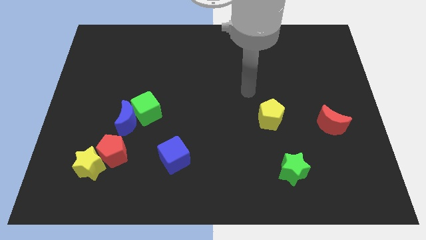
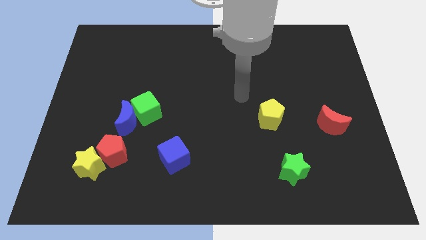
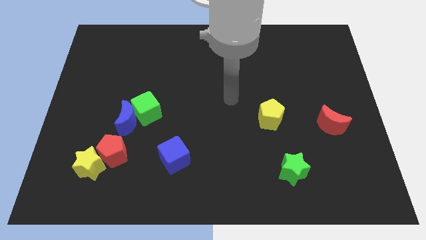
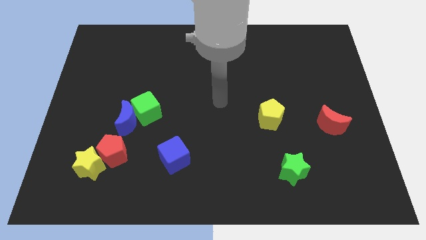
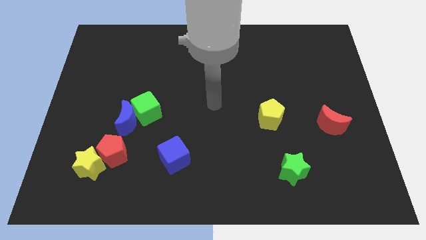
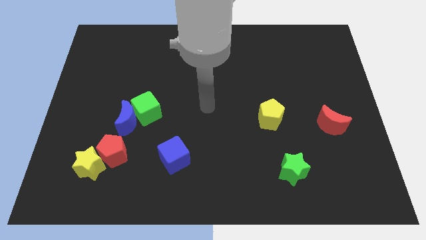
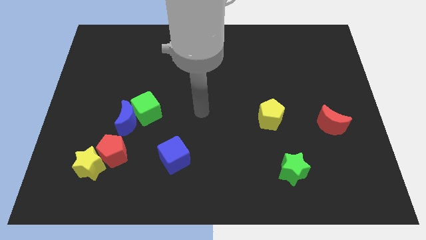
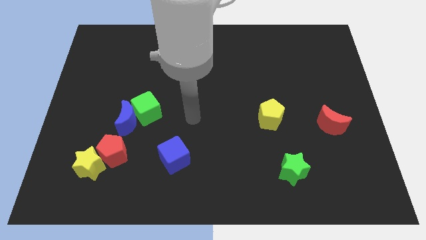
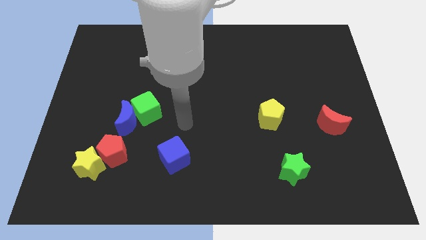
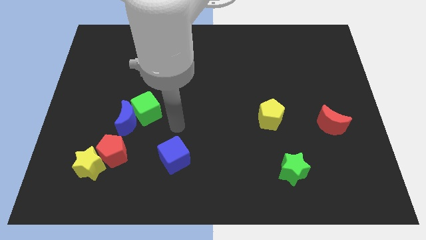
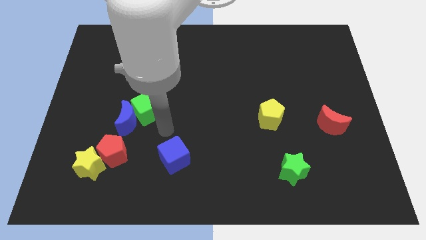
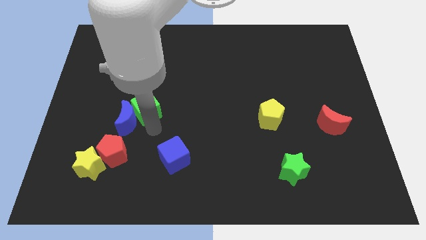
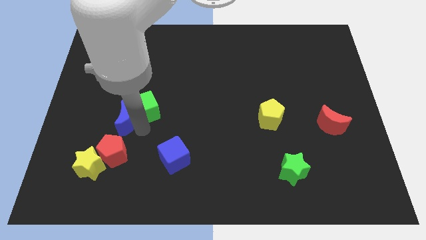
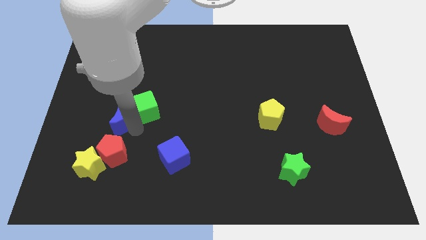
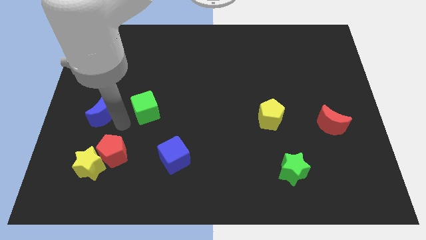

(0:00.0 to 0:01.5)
move the green cube away from the blue moon

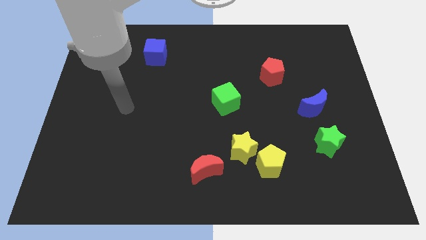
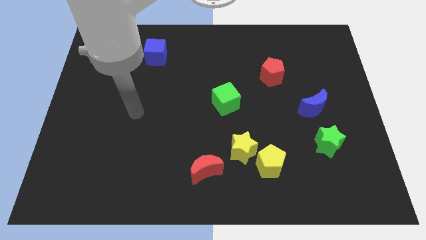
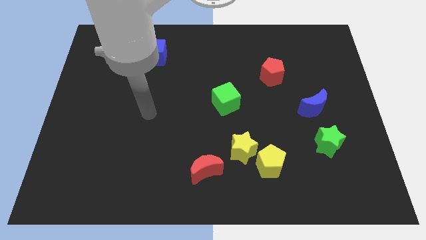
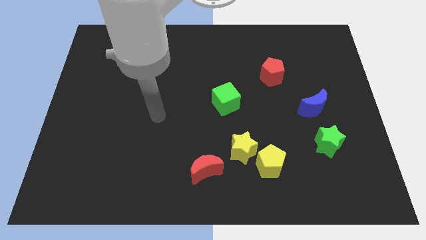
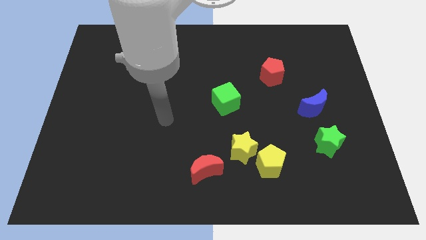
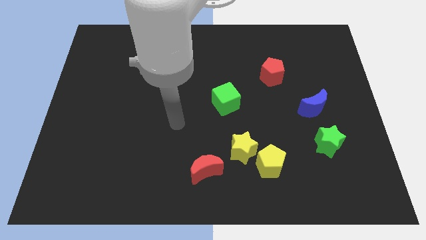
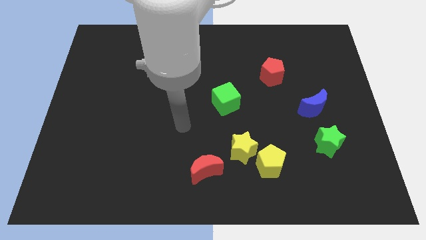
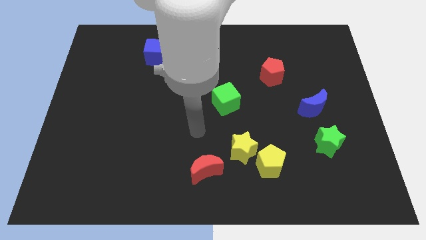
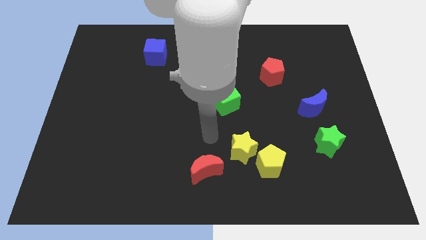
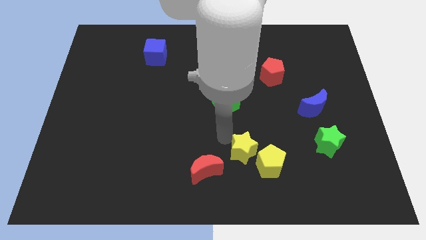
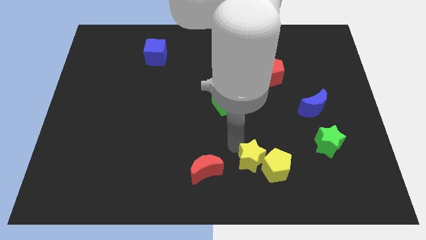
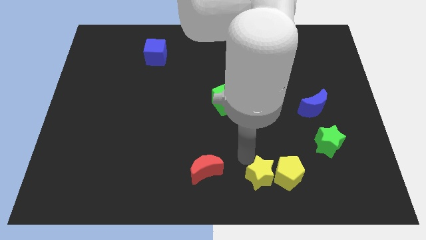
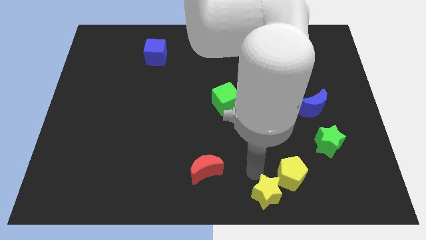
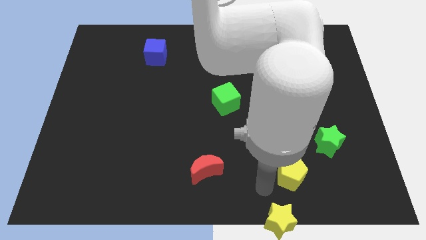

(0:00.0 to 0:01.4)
move the yellow pentagon away from the yellow star

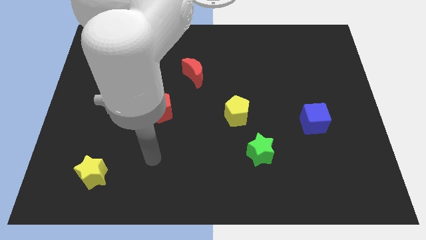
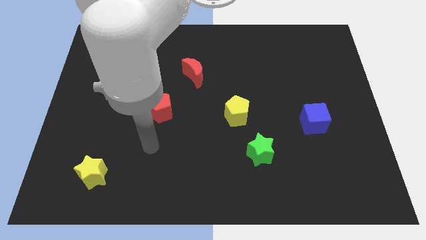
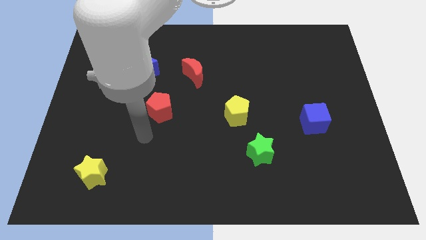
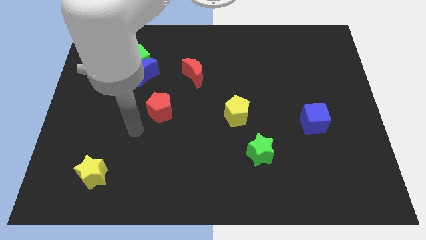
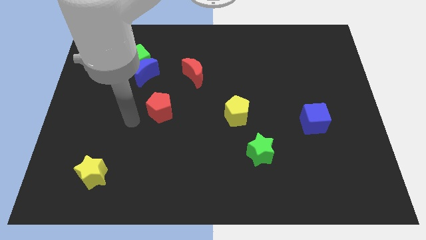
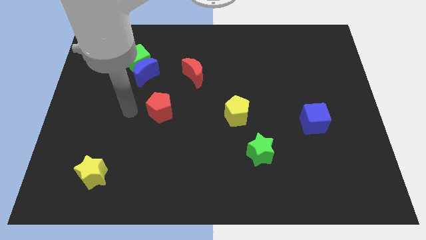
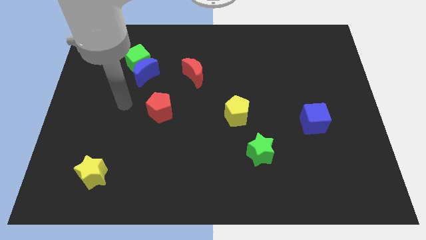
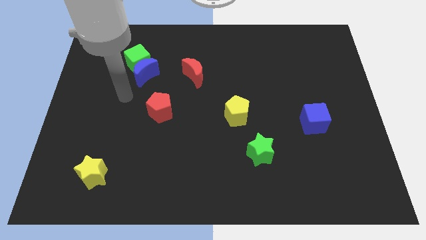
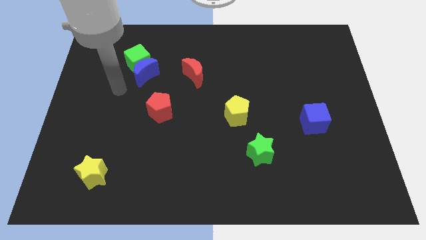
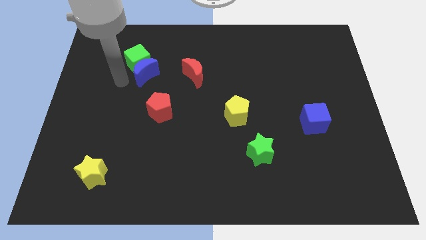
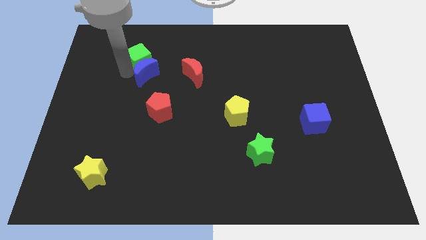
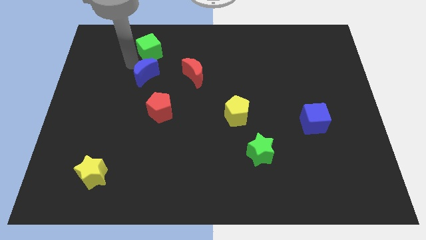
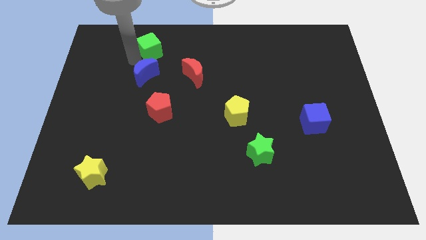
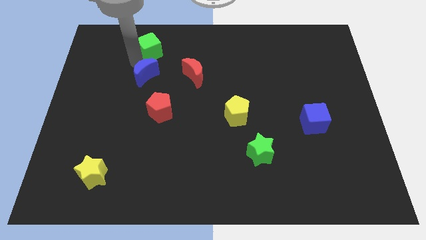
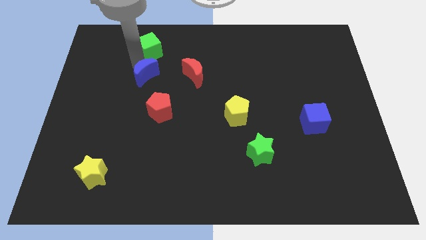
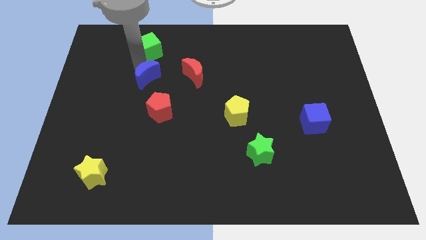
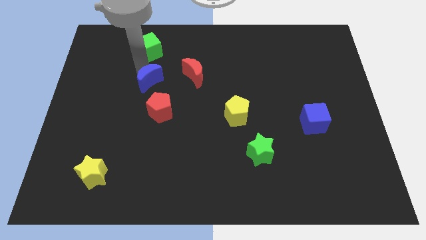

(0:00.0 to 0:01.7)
separate the blue moon from the green cube

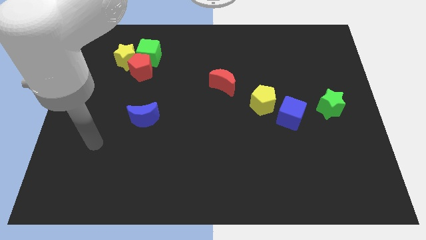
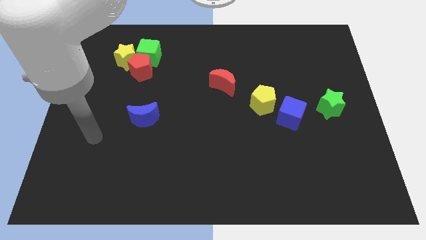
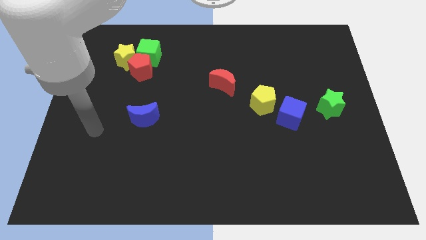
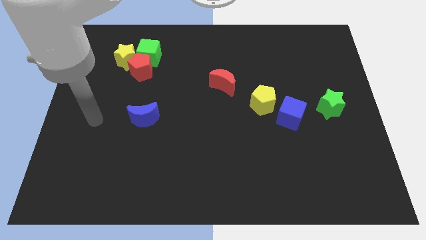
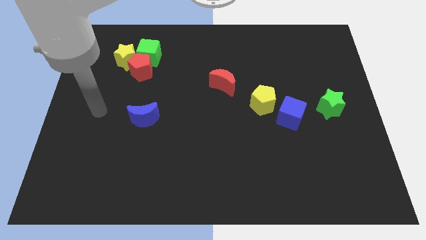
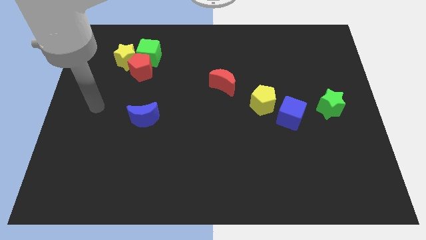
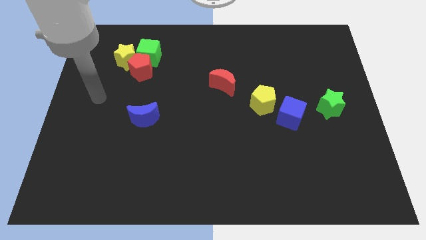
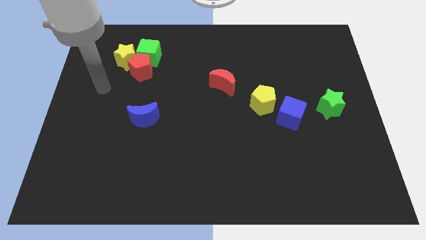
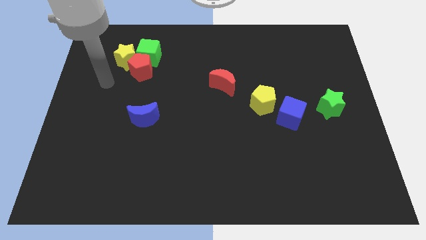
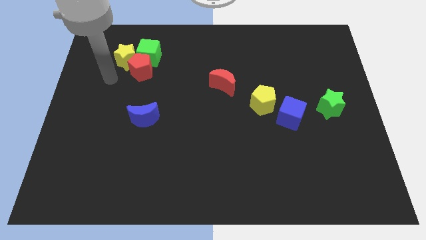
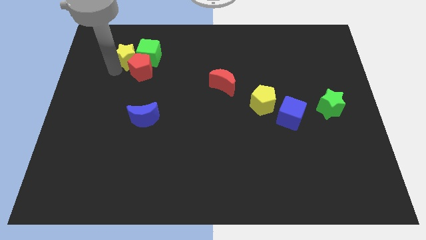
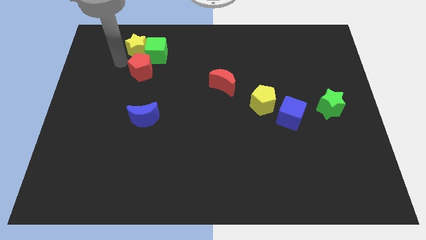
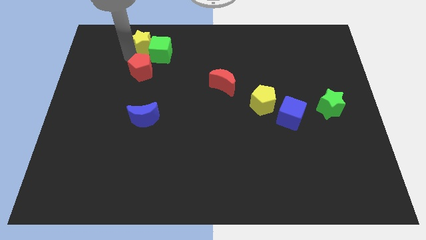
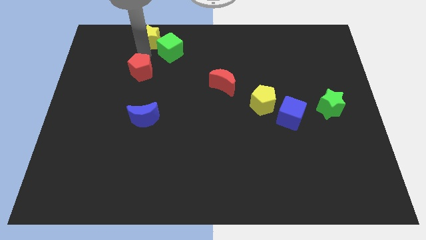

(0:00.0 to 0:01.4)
separate the red pentagon from the green cube and yellow star

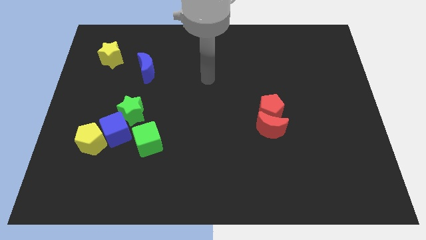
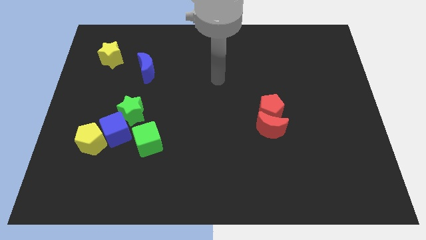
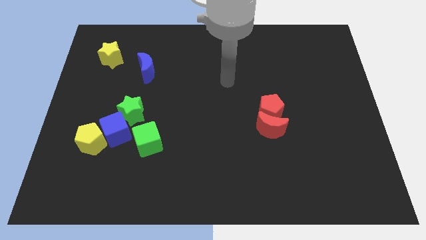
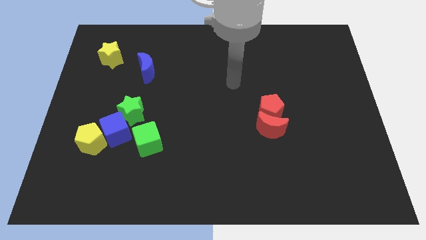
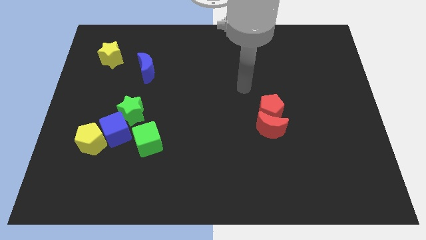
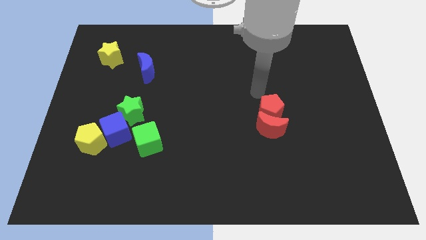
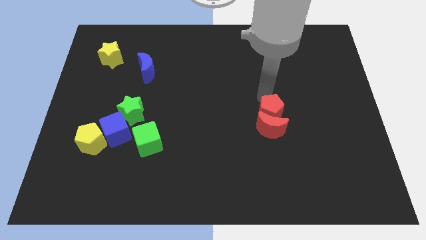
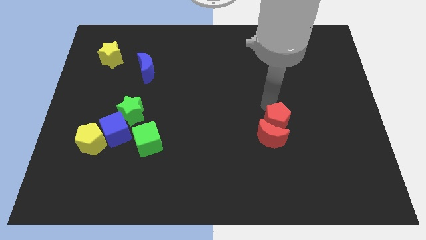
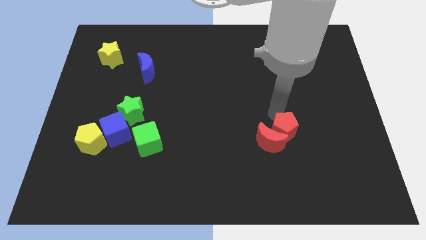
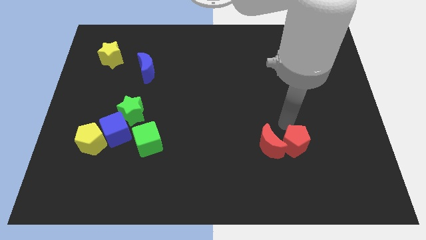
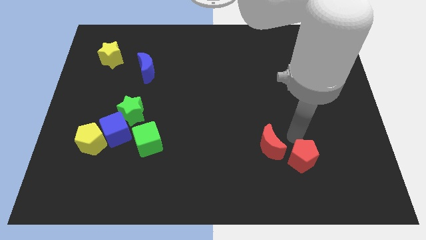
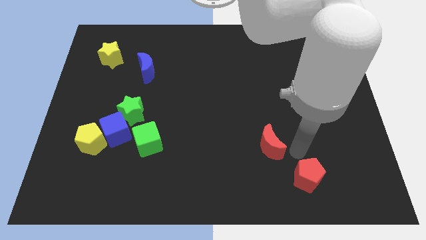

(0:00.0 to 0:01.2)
separate the red moon from the red pentagon

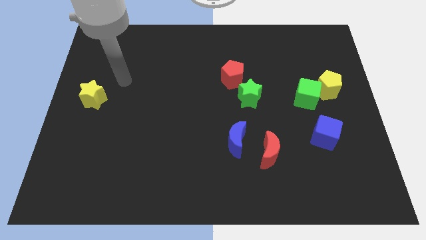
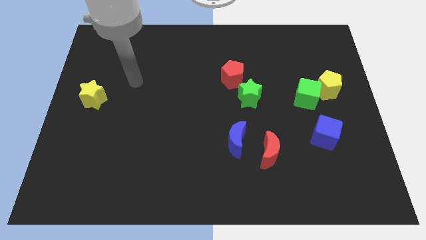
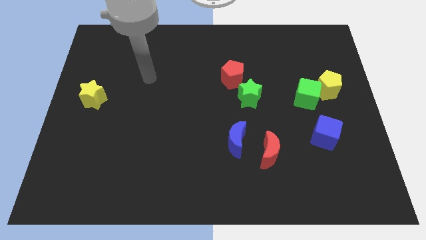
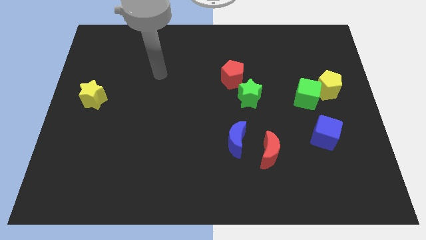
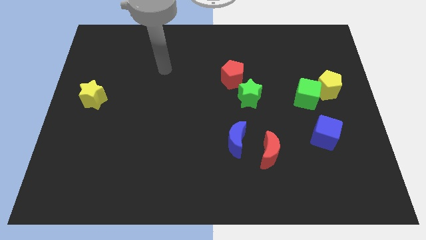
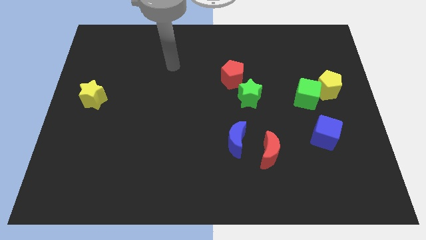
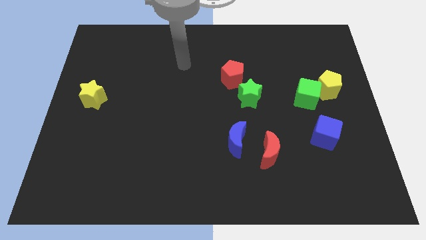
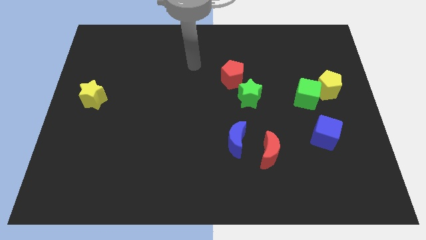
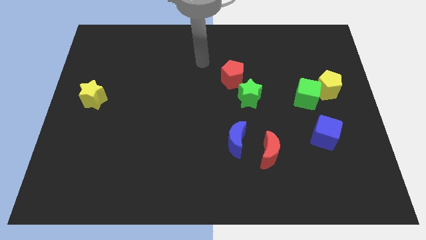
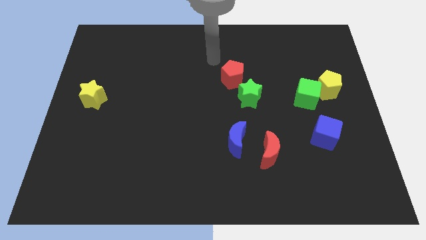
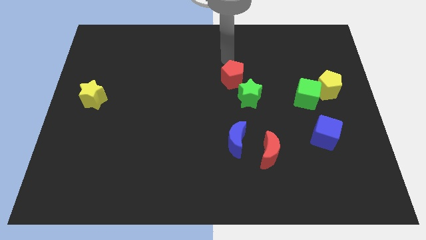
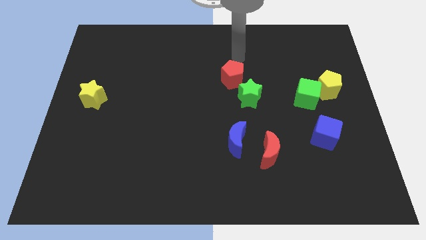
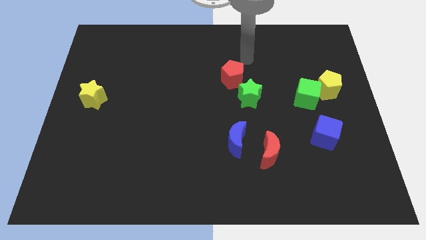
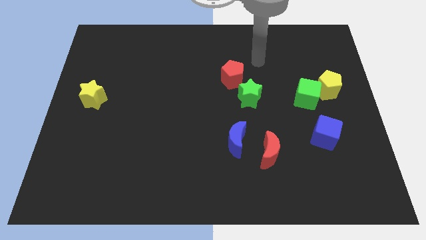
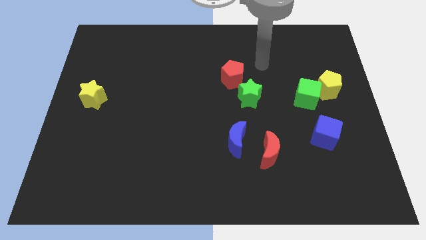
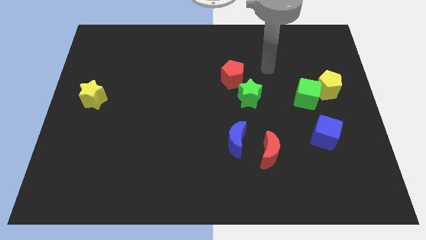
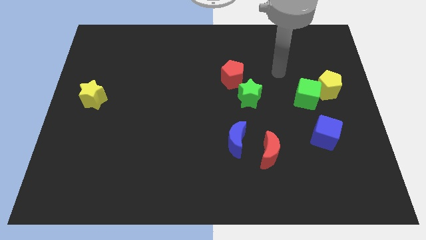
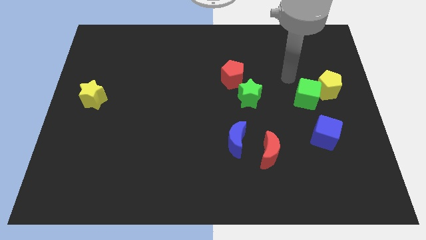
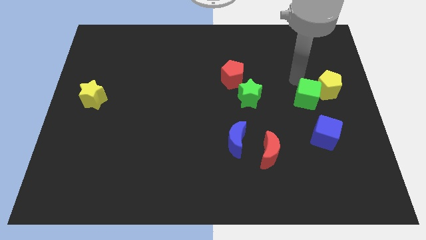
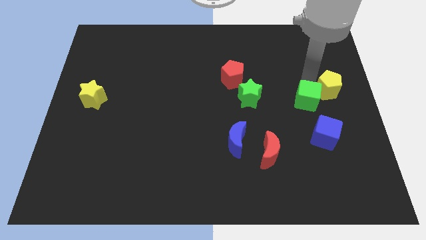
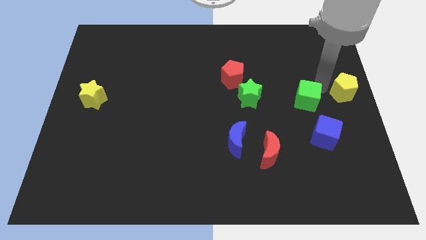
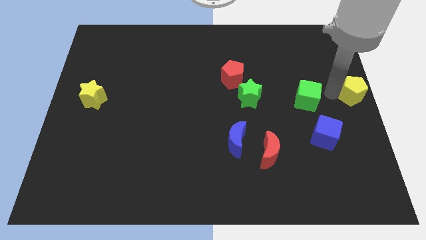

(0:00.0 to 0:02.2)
move the green cube away from the yellow pentagon
